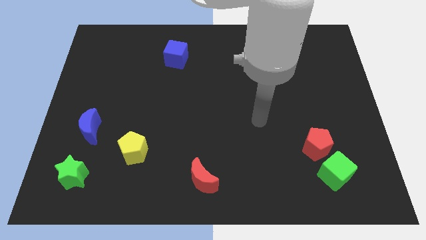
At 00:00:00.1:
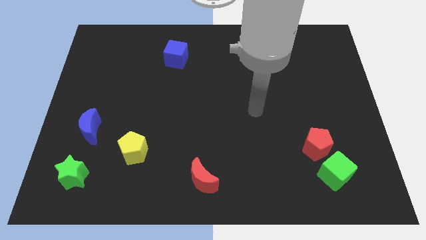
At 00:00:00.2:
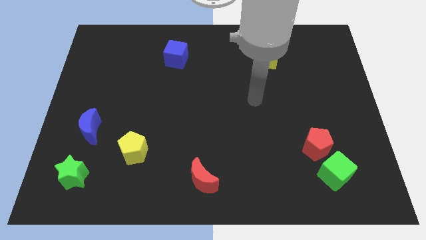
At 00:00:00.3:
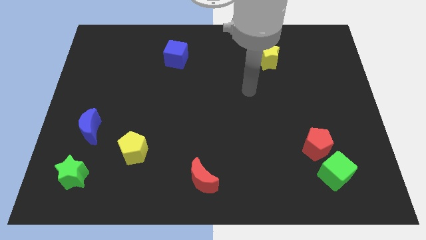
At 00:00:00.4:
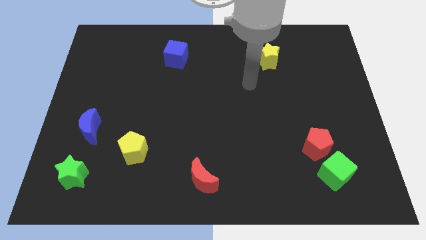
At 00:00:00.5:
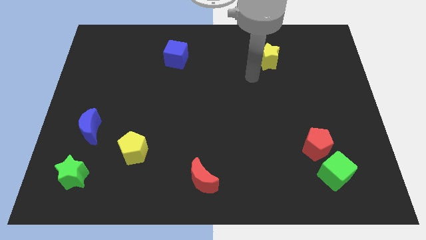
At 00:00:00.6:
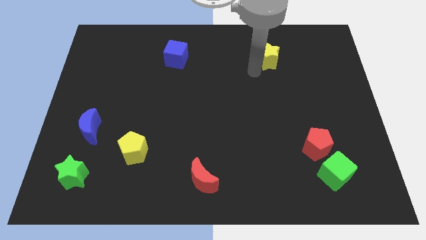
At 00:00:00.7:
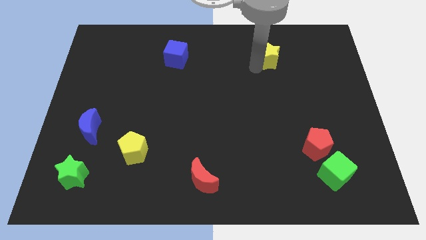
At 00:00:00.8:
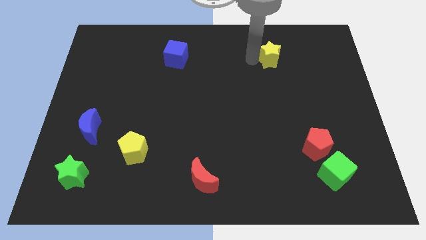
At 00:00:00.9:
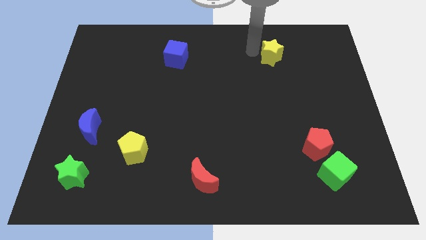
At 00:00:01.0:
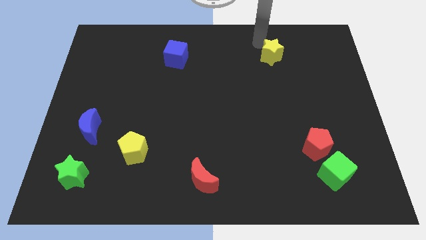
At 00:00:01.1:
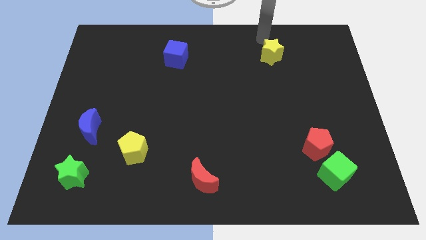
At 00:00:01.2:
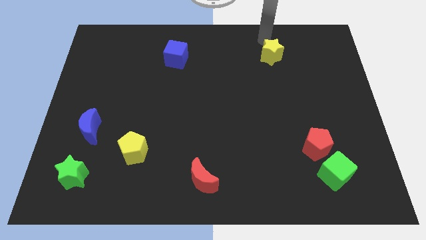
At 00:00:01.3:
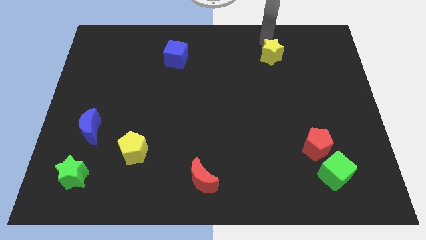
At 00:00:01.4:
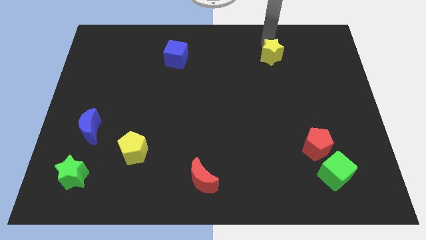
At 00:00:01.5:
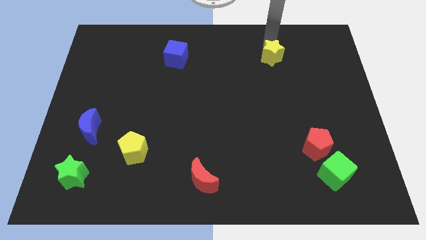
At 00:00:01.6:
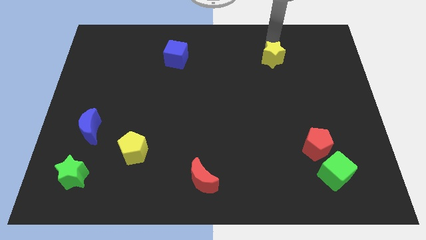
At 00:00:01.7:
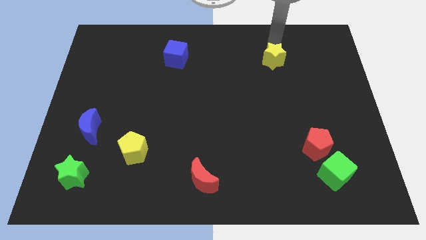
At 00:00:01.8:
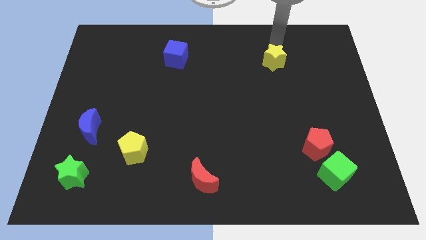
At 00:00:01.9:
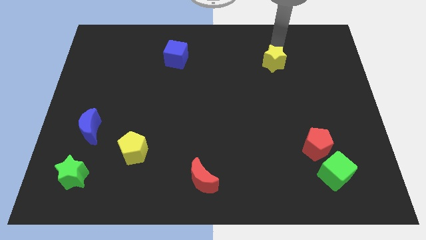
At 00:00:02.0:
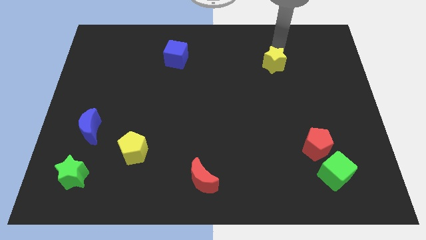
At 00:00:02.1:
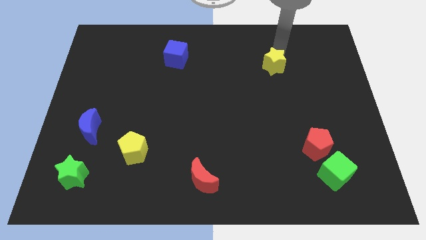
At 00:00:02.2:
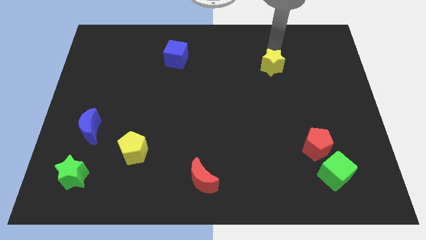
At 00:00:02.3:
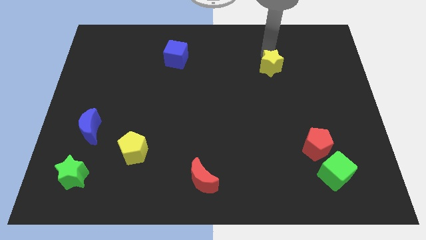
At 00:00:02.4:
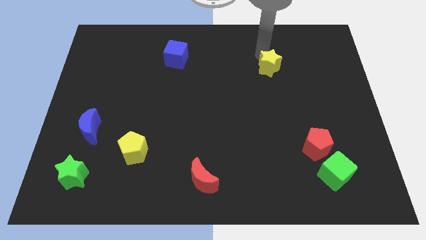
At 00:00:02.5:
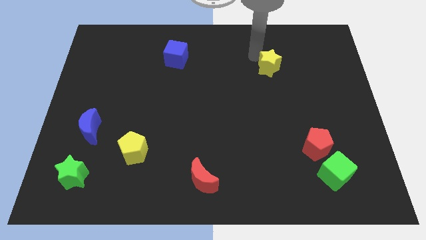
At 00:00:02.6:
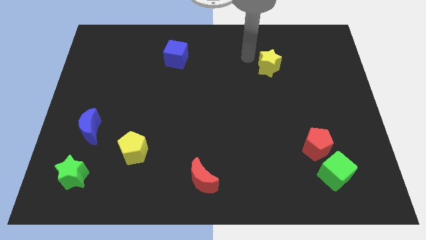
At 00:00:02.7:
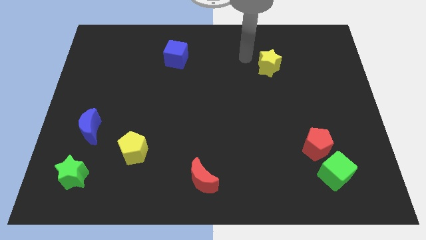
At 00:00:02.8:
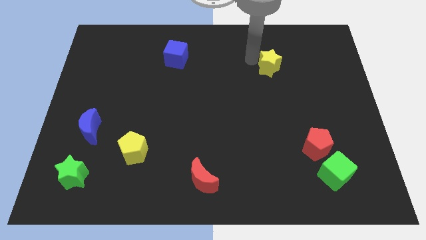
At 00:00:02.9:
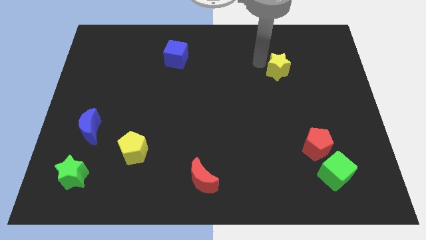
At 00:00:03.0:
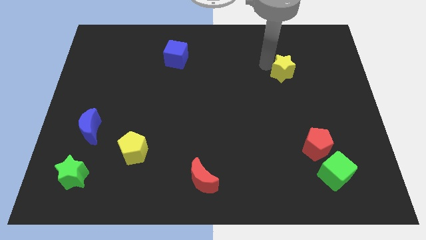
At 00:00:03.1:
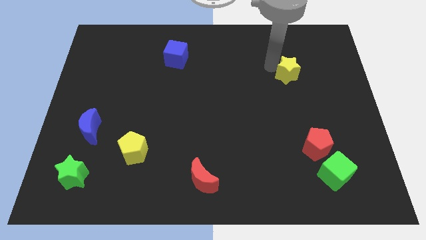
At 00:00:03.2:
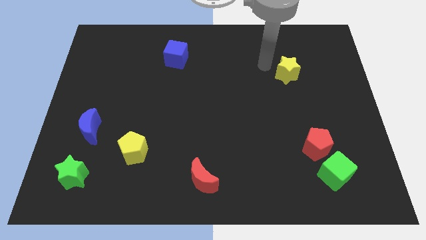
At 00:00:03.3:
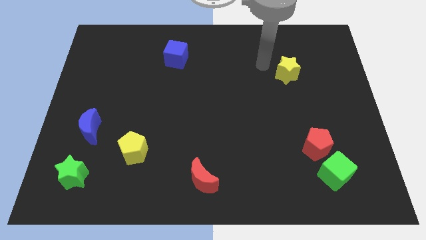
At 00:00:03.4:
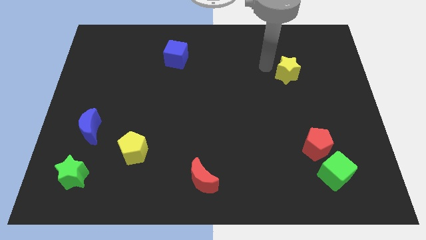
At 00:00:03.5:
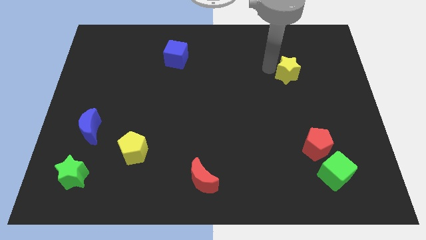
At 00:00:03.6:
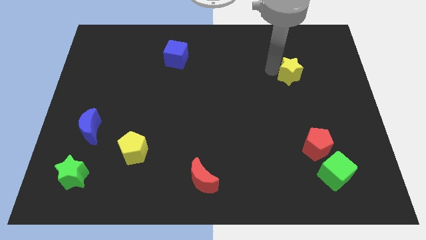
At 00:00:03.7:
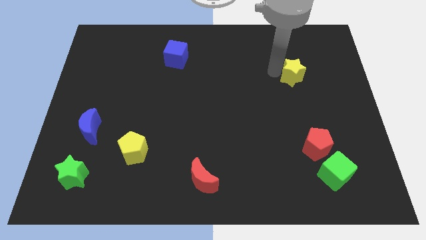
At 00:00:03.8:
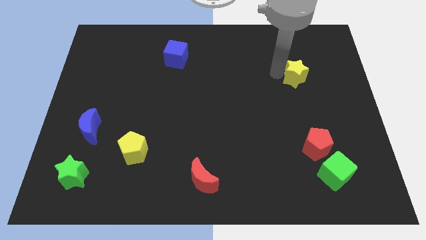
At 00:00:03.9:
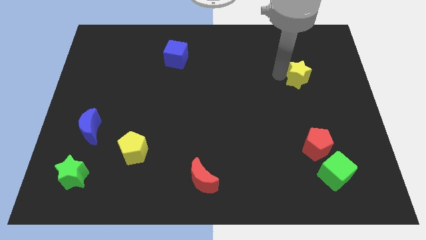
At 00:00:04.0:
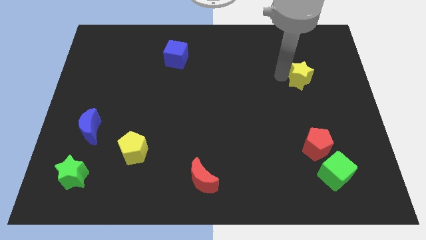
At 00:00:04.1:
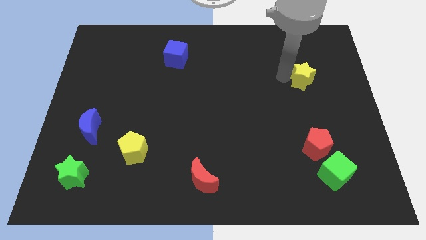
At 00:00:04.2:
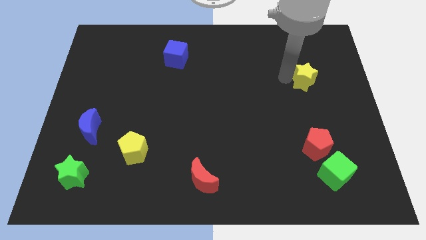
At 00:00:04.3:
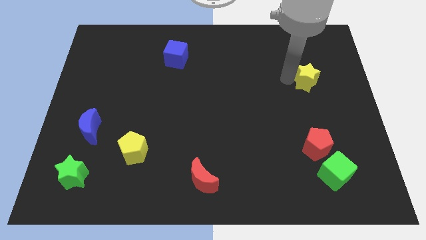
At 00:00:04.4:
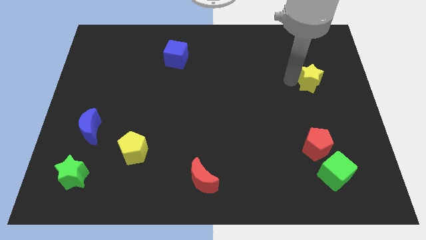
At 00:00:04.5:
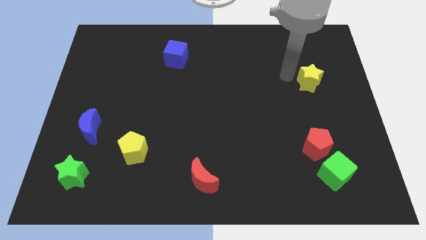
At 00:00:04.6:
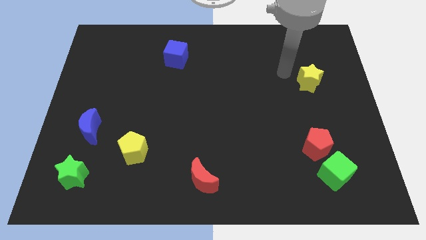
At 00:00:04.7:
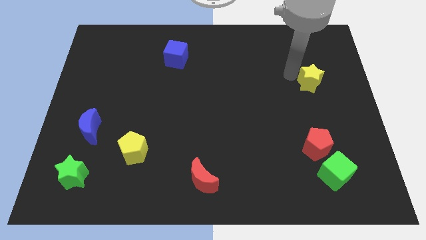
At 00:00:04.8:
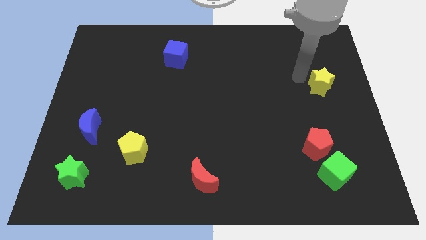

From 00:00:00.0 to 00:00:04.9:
push the yellow star to the center right

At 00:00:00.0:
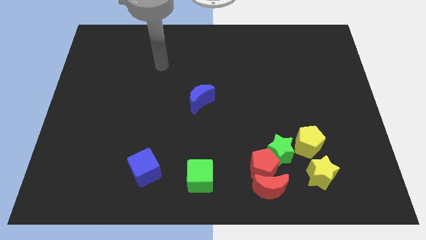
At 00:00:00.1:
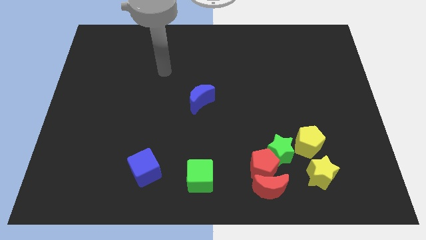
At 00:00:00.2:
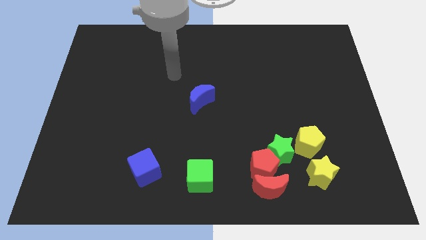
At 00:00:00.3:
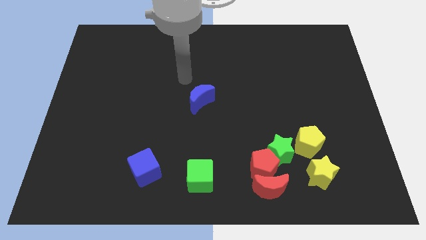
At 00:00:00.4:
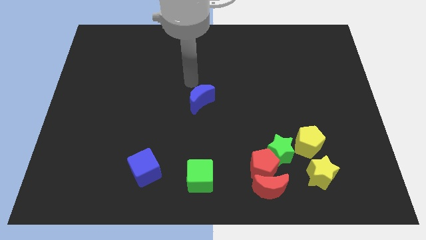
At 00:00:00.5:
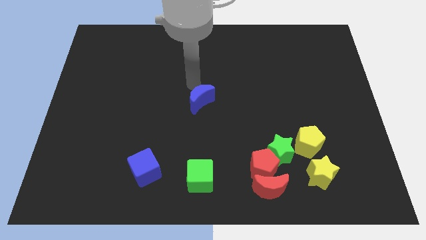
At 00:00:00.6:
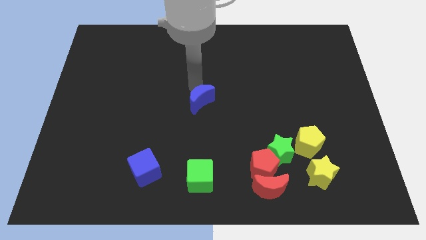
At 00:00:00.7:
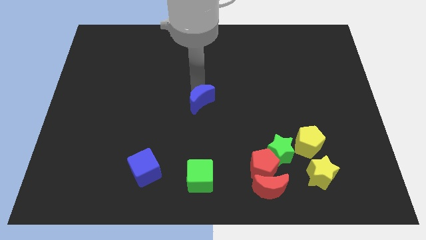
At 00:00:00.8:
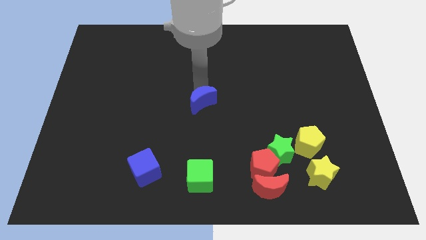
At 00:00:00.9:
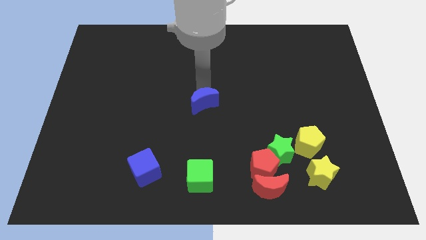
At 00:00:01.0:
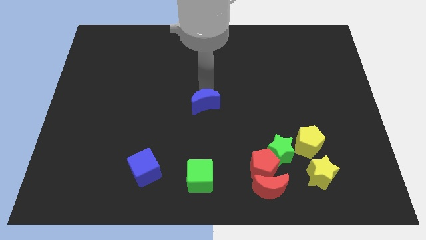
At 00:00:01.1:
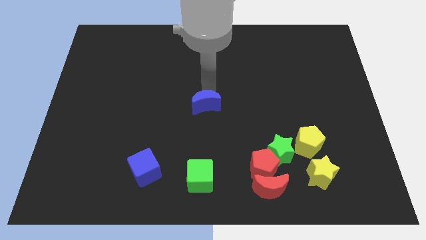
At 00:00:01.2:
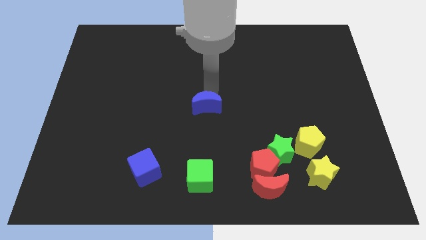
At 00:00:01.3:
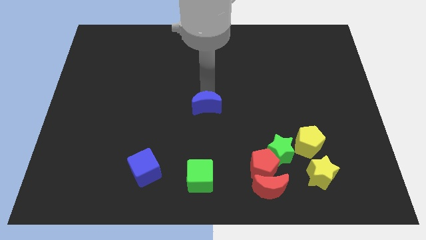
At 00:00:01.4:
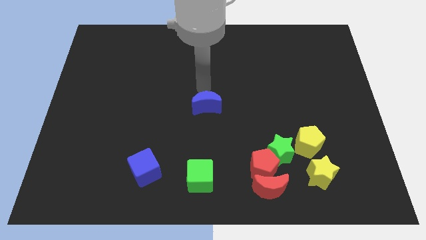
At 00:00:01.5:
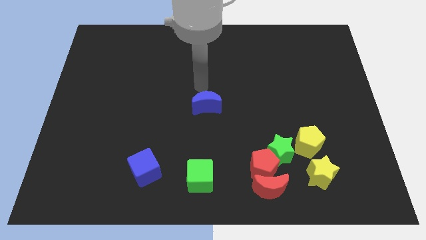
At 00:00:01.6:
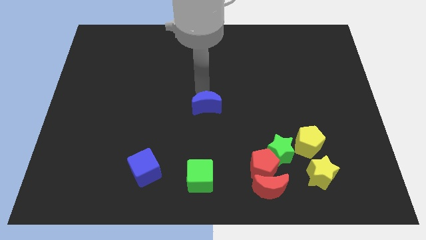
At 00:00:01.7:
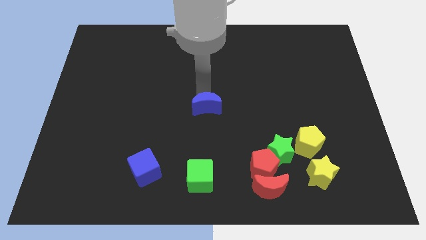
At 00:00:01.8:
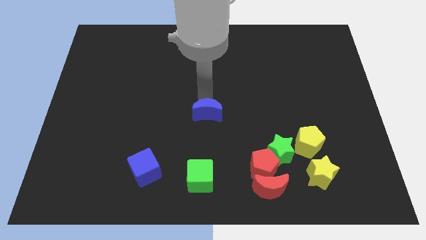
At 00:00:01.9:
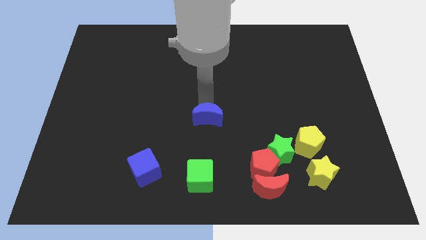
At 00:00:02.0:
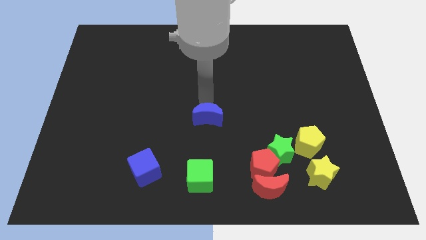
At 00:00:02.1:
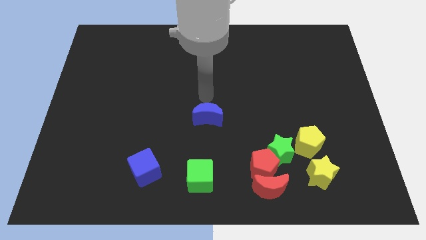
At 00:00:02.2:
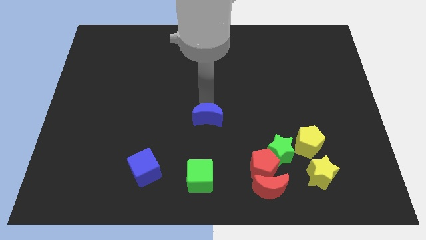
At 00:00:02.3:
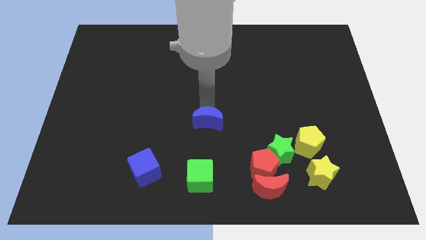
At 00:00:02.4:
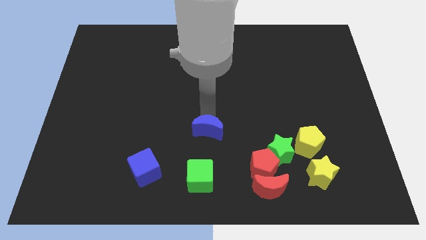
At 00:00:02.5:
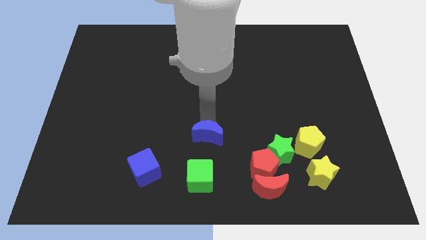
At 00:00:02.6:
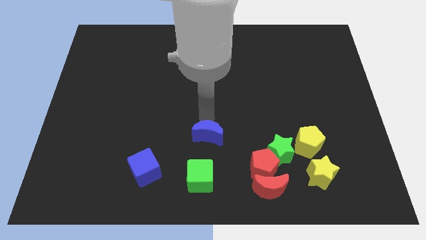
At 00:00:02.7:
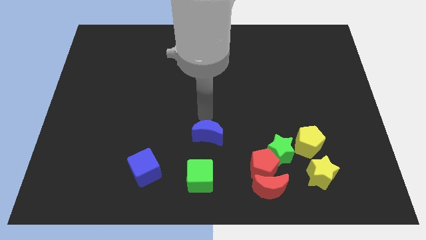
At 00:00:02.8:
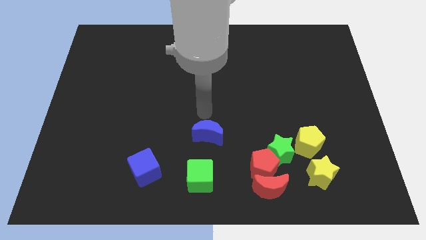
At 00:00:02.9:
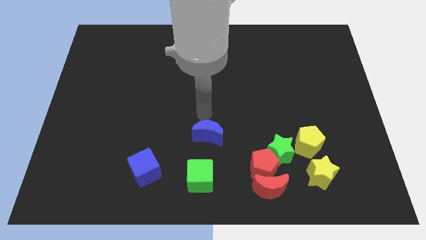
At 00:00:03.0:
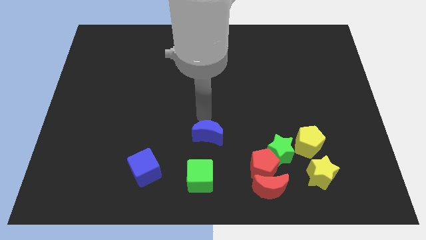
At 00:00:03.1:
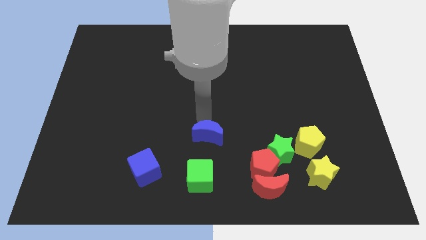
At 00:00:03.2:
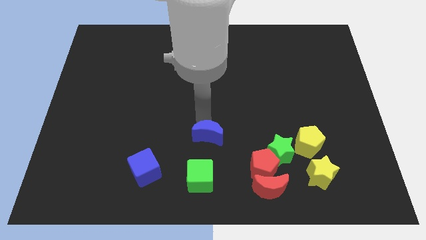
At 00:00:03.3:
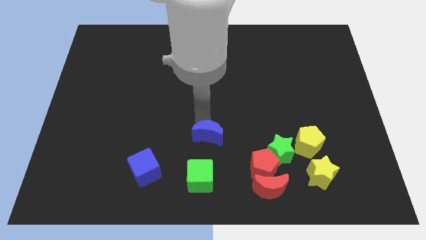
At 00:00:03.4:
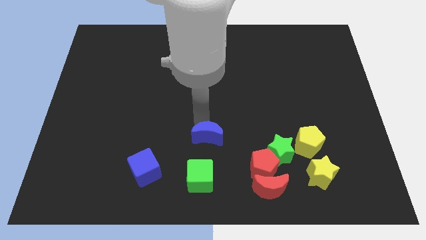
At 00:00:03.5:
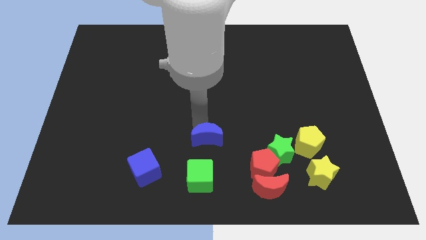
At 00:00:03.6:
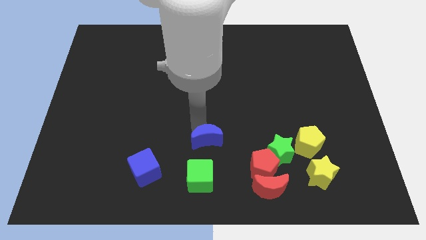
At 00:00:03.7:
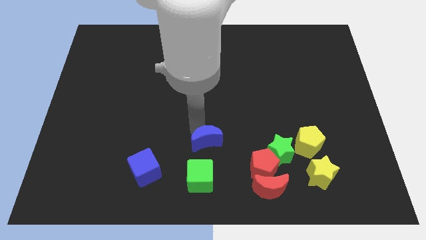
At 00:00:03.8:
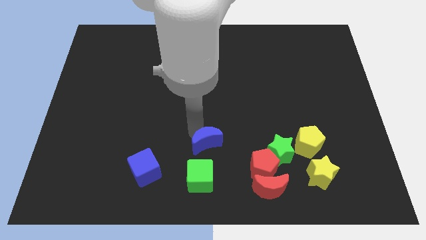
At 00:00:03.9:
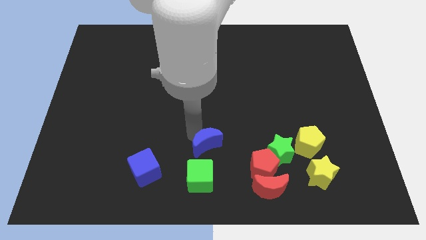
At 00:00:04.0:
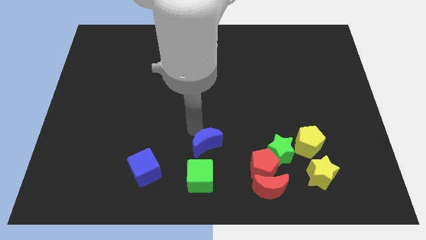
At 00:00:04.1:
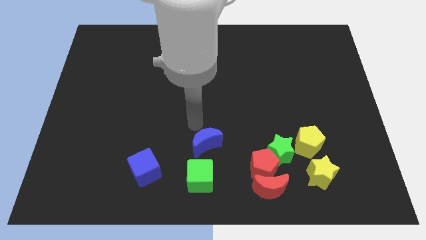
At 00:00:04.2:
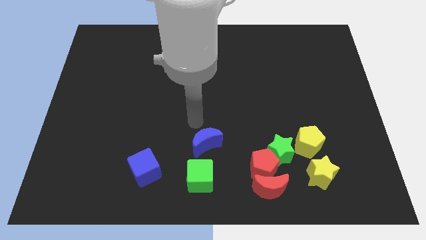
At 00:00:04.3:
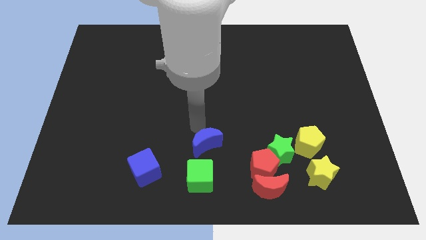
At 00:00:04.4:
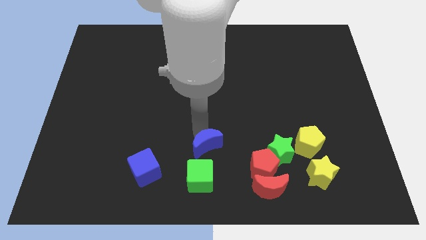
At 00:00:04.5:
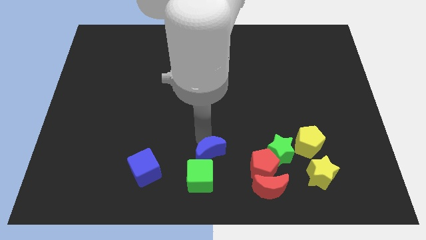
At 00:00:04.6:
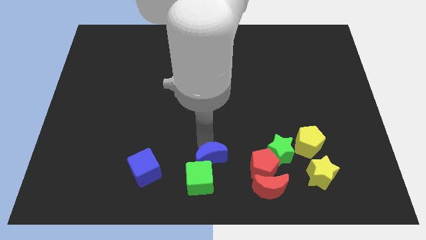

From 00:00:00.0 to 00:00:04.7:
slide the blue moon to the bottom side
